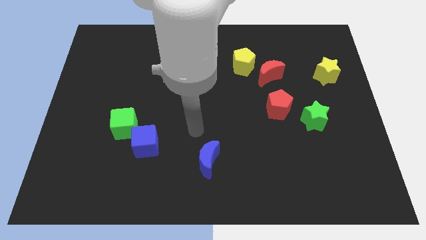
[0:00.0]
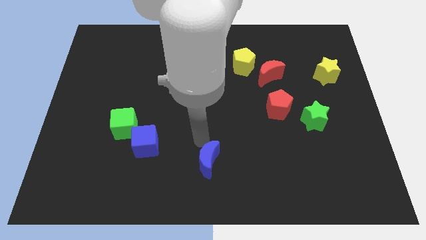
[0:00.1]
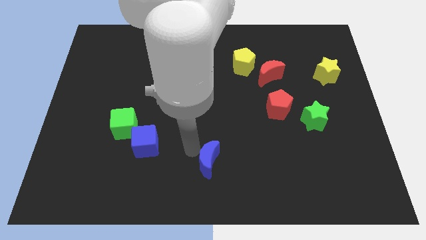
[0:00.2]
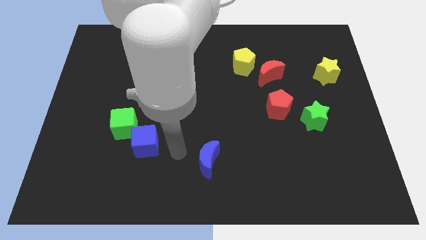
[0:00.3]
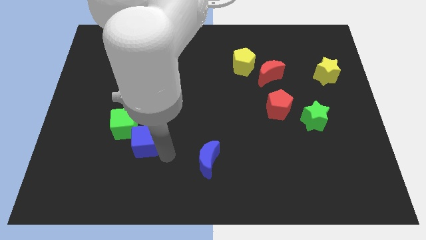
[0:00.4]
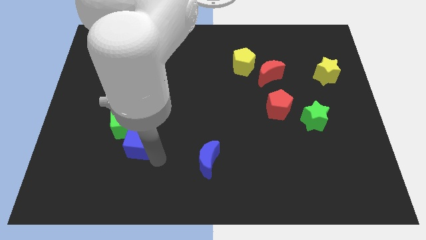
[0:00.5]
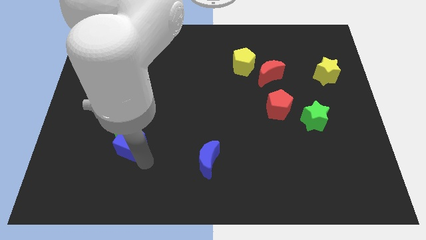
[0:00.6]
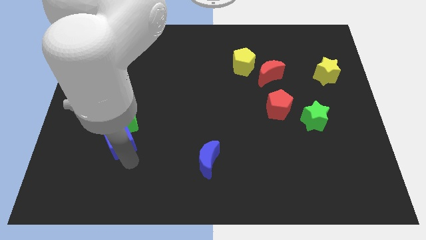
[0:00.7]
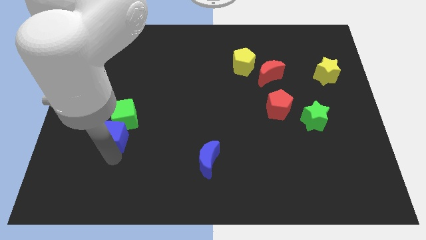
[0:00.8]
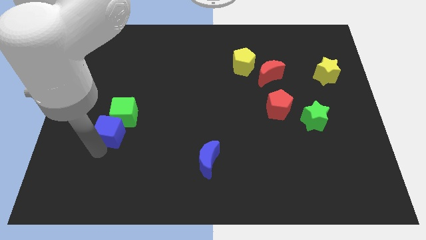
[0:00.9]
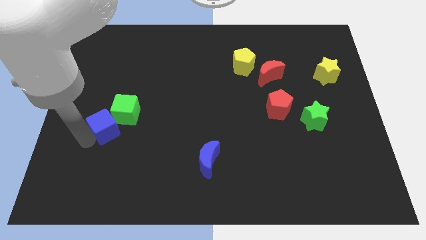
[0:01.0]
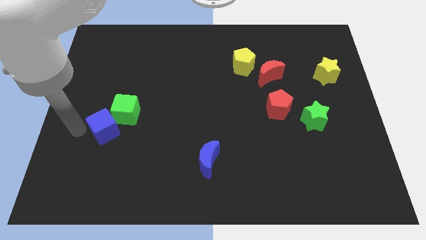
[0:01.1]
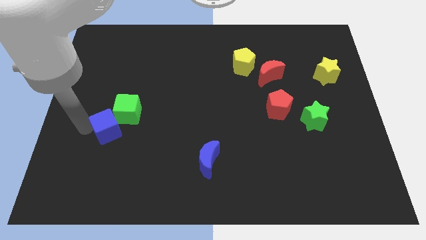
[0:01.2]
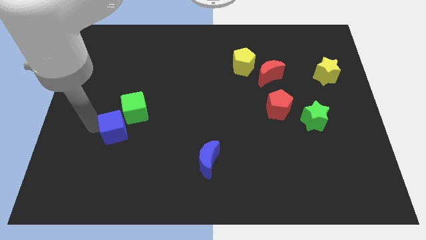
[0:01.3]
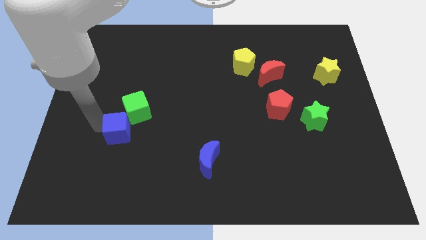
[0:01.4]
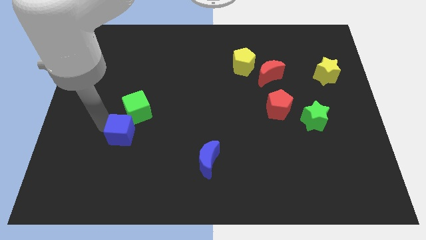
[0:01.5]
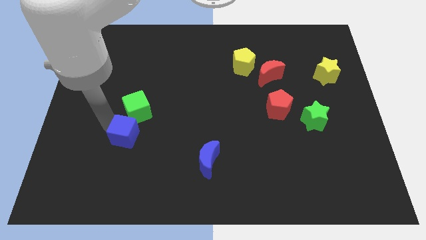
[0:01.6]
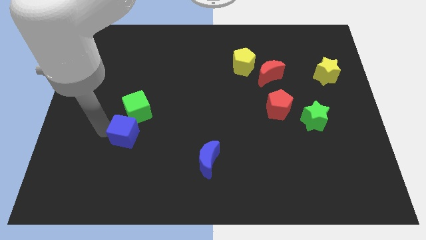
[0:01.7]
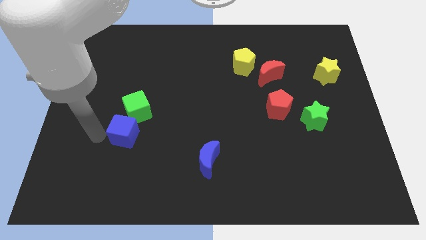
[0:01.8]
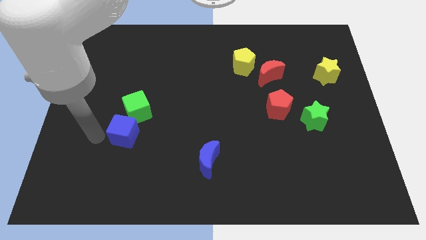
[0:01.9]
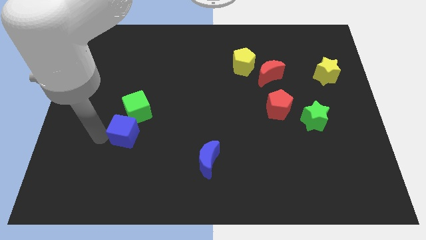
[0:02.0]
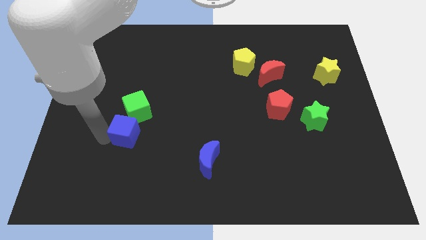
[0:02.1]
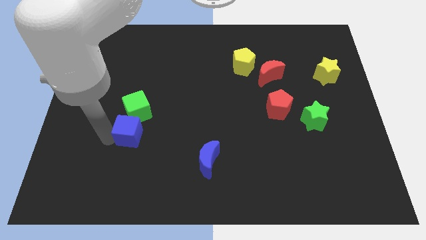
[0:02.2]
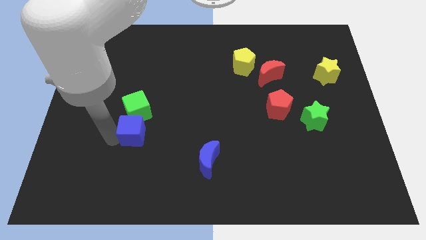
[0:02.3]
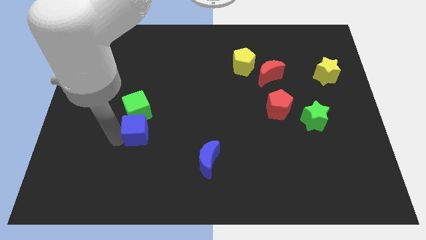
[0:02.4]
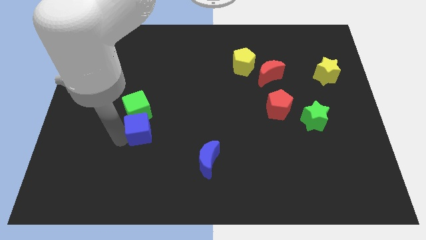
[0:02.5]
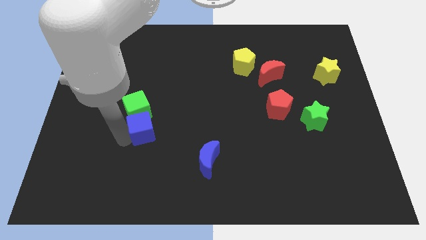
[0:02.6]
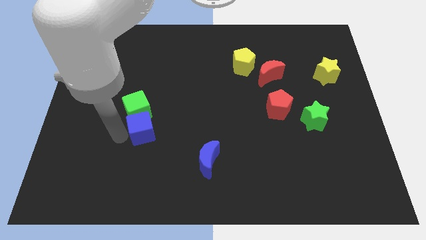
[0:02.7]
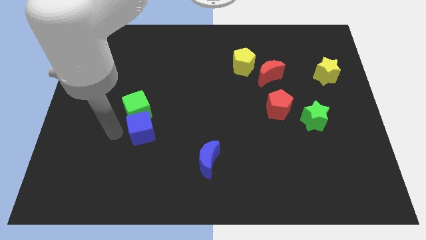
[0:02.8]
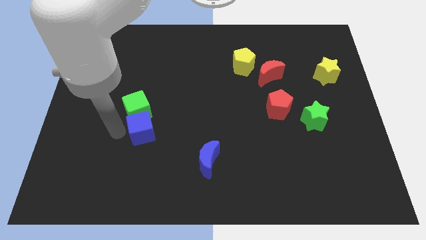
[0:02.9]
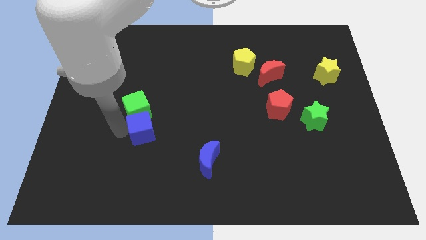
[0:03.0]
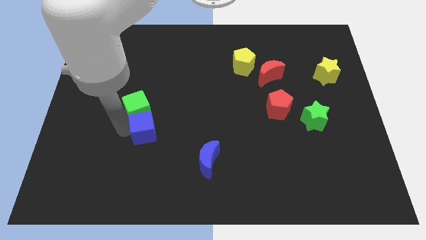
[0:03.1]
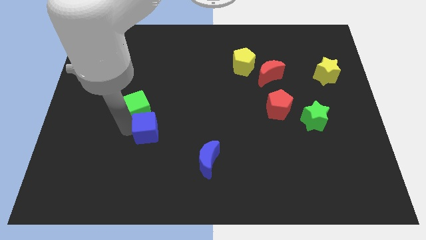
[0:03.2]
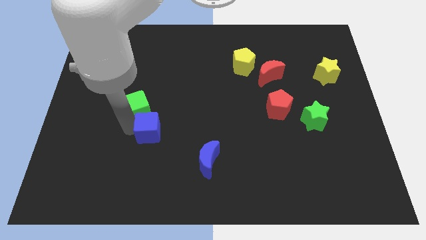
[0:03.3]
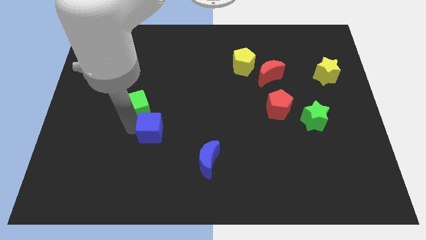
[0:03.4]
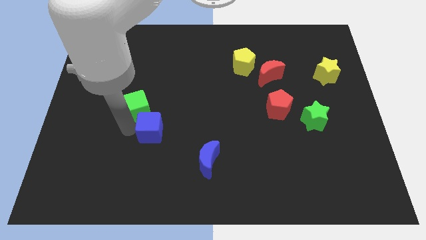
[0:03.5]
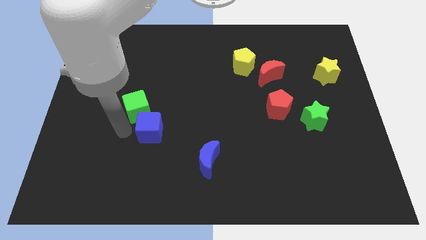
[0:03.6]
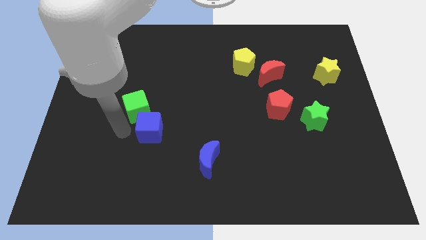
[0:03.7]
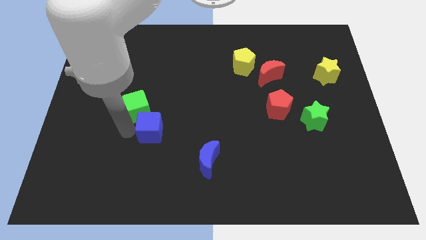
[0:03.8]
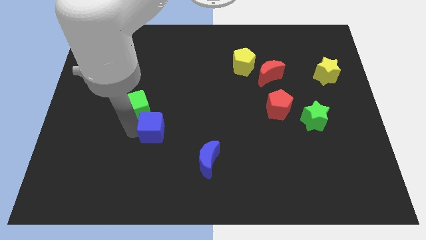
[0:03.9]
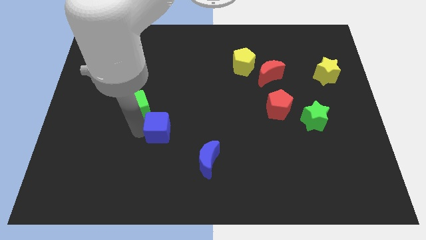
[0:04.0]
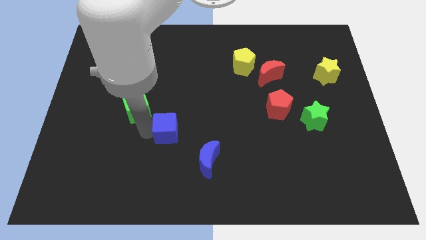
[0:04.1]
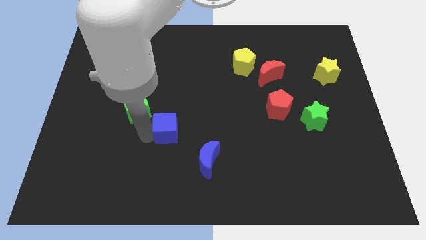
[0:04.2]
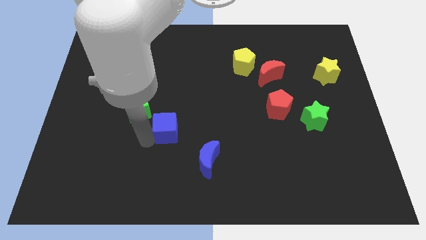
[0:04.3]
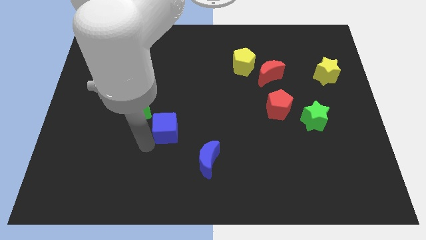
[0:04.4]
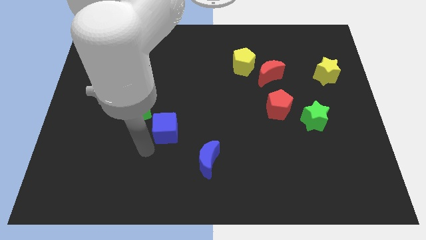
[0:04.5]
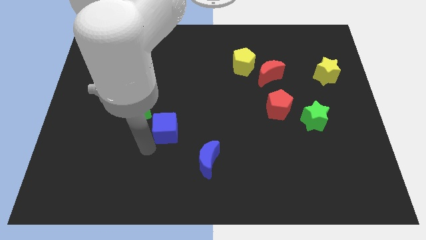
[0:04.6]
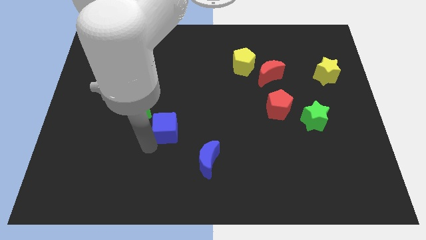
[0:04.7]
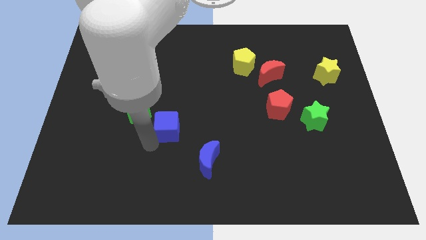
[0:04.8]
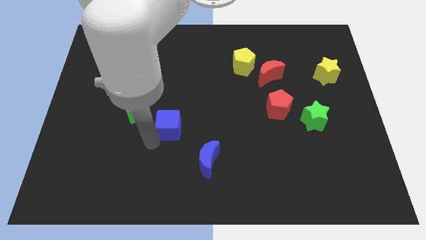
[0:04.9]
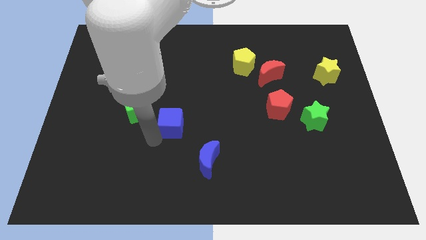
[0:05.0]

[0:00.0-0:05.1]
push the blue cube upwards and to the right slightly

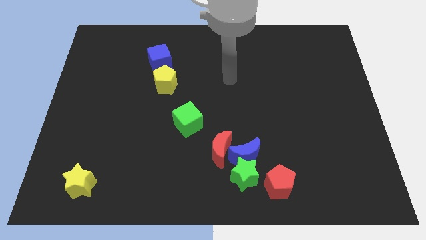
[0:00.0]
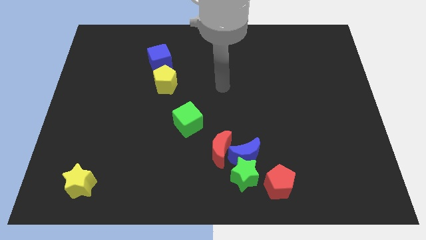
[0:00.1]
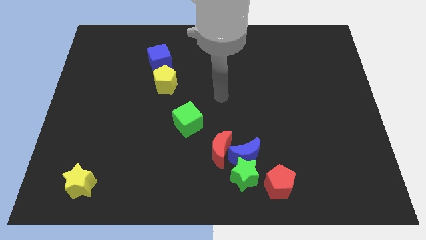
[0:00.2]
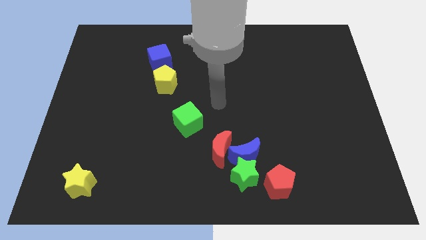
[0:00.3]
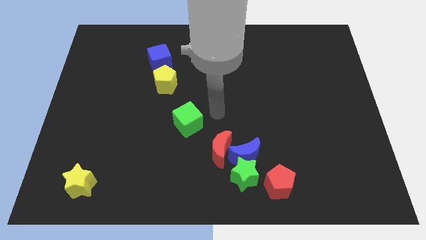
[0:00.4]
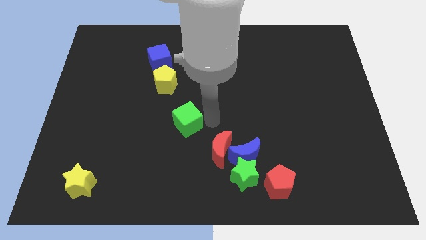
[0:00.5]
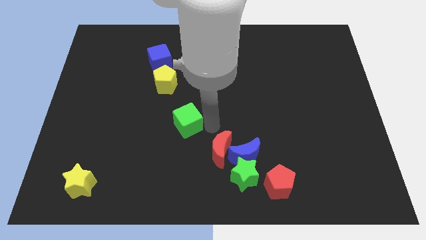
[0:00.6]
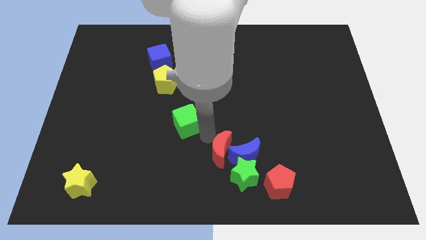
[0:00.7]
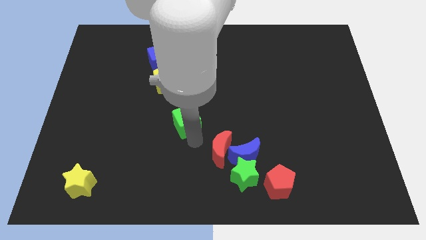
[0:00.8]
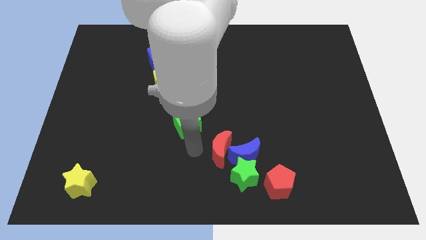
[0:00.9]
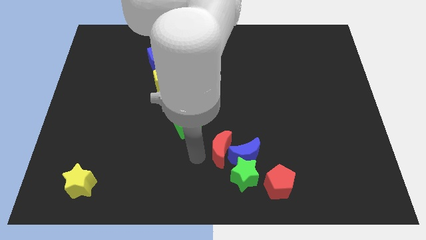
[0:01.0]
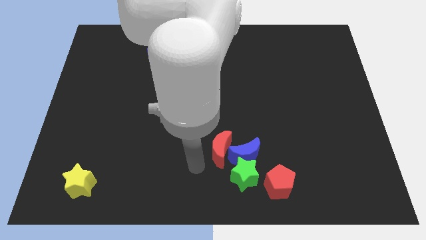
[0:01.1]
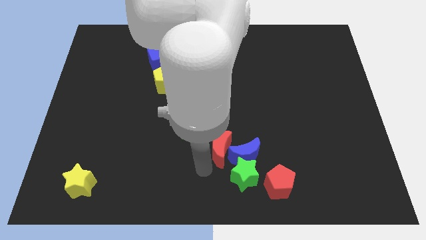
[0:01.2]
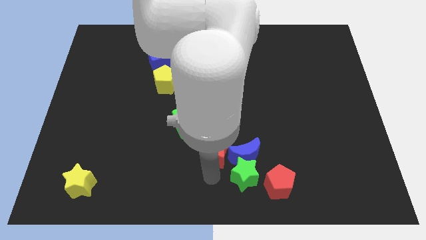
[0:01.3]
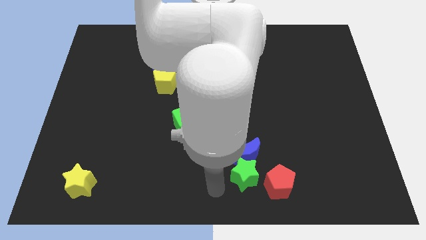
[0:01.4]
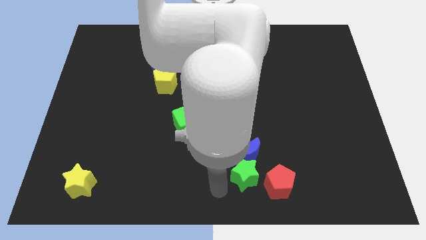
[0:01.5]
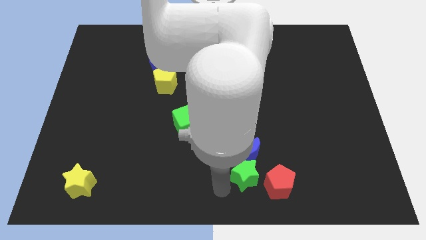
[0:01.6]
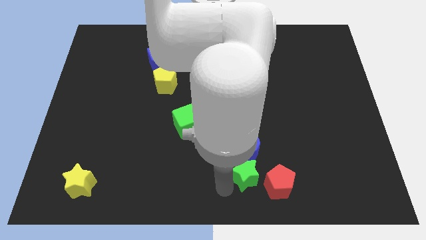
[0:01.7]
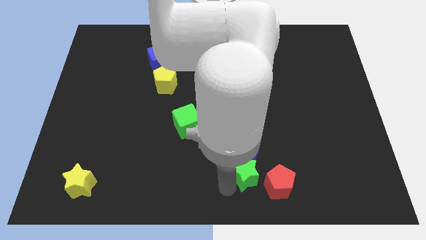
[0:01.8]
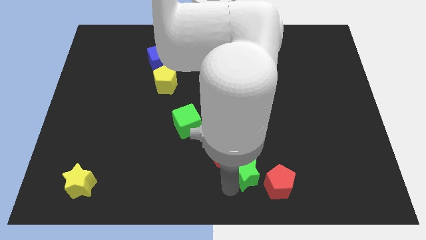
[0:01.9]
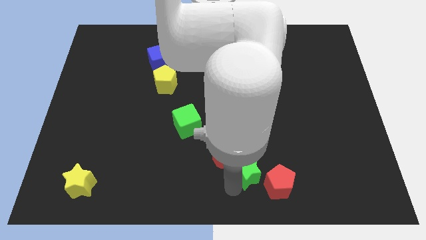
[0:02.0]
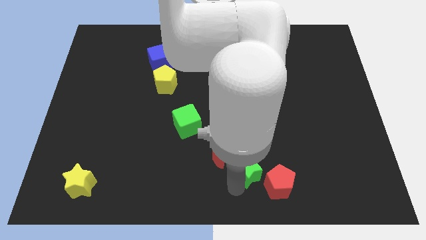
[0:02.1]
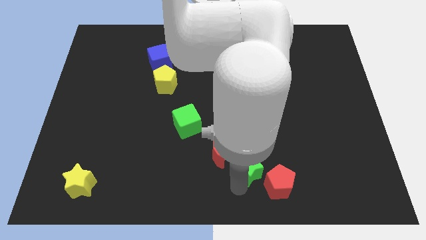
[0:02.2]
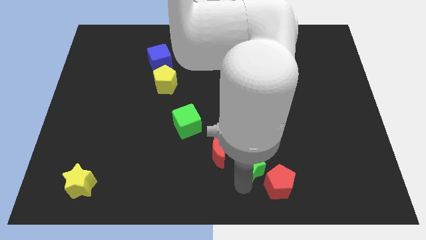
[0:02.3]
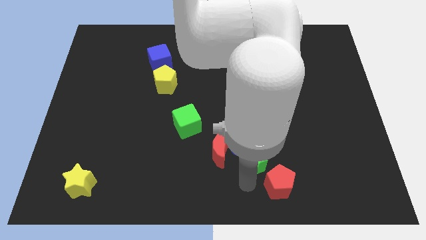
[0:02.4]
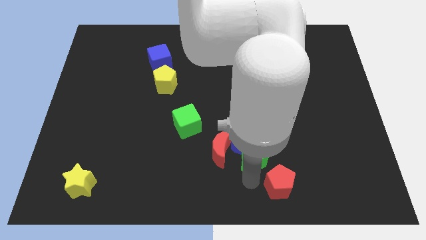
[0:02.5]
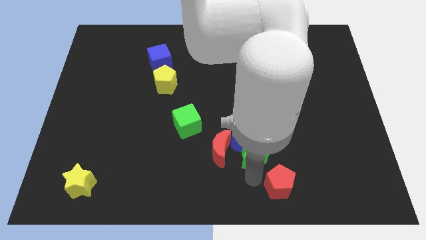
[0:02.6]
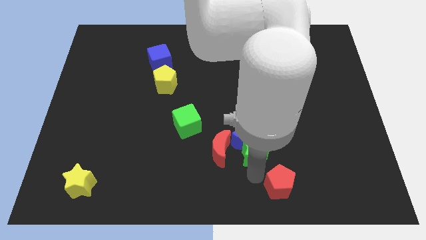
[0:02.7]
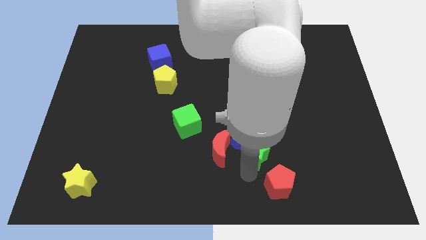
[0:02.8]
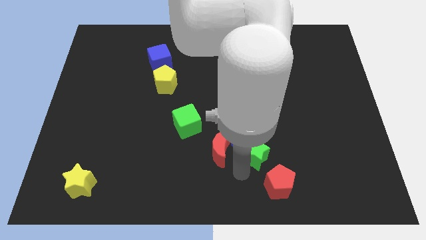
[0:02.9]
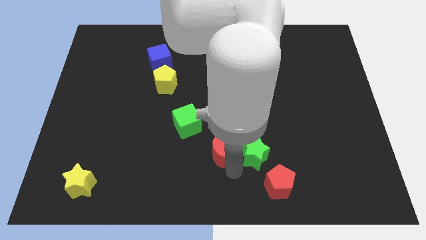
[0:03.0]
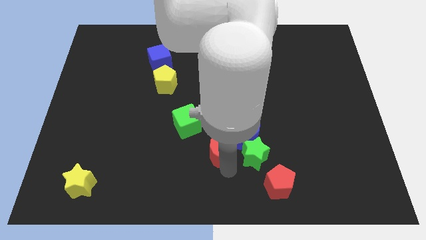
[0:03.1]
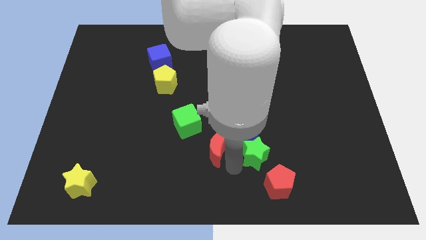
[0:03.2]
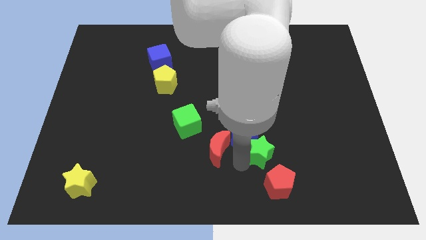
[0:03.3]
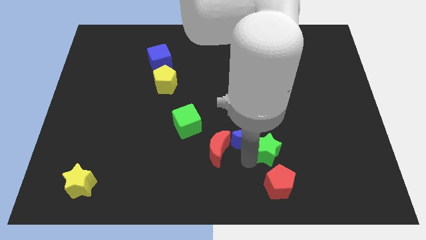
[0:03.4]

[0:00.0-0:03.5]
push the green star a little bit upwards and right
